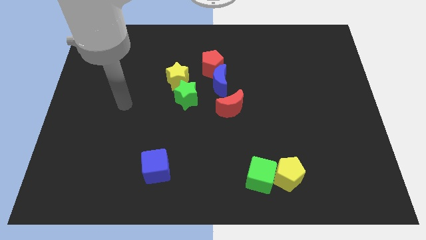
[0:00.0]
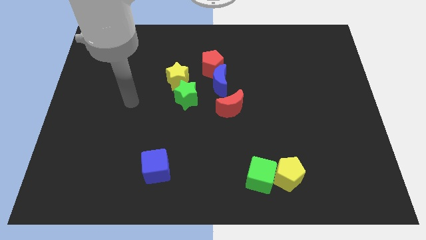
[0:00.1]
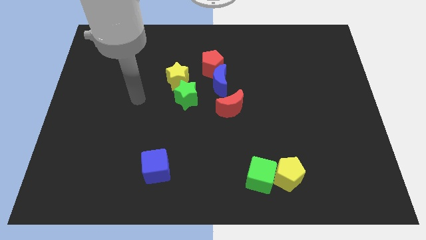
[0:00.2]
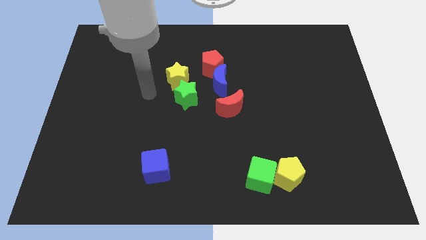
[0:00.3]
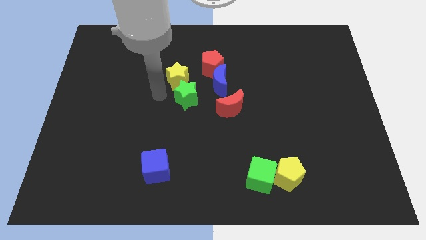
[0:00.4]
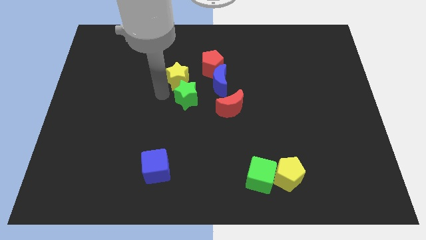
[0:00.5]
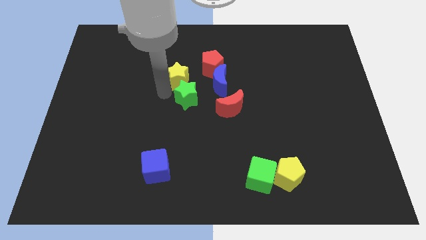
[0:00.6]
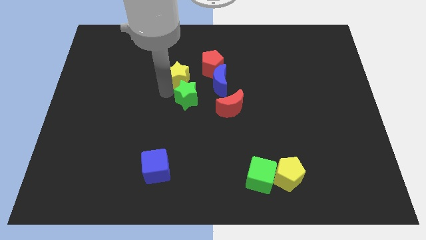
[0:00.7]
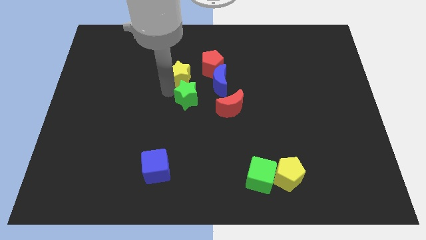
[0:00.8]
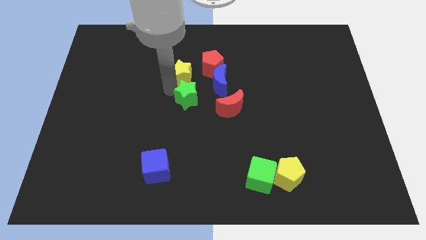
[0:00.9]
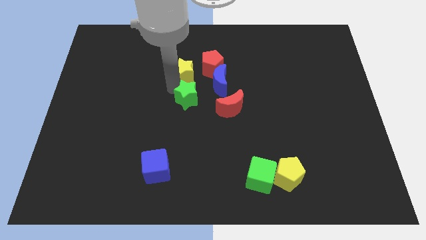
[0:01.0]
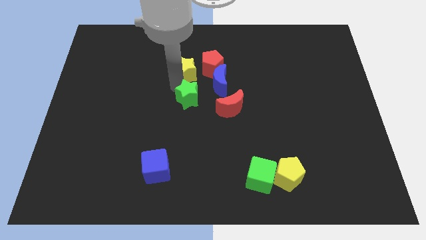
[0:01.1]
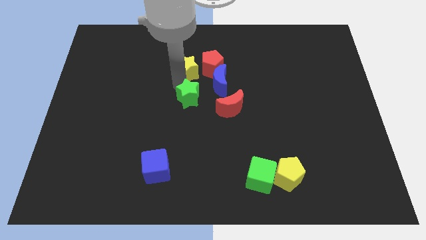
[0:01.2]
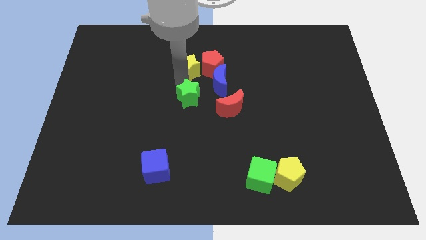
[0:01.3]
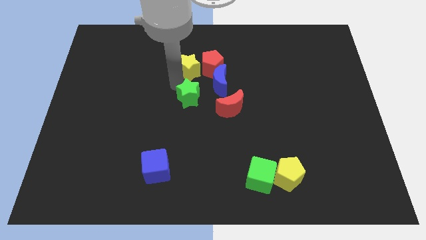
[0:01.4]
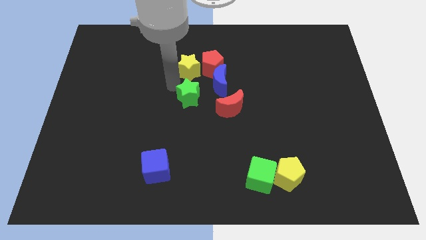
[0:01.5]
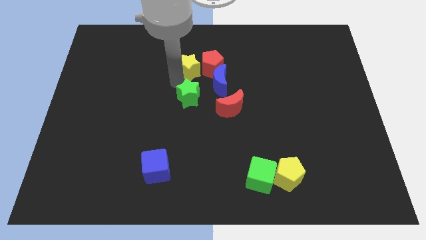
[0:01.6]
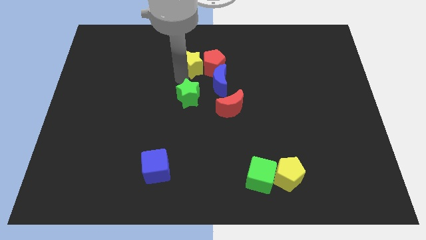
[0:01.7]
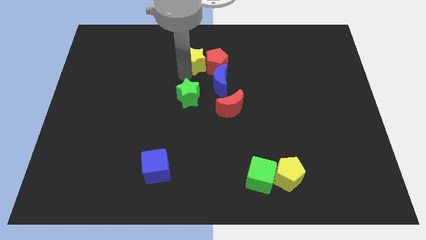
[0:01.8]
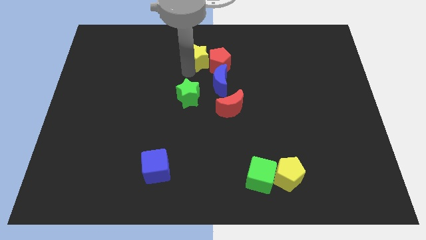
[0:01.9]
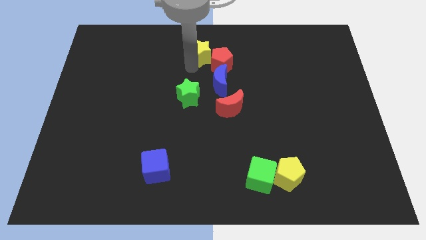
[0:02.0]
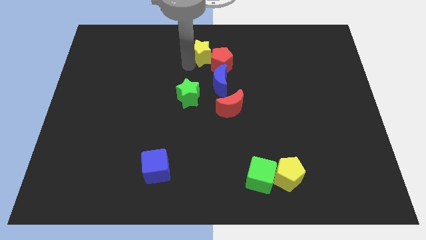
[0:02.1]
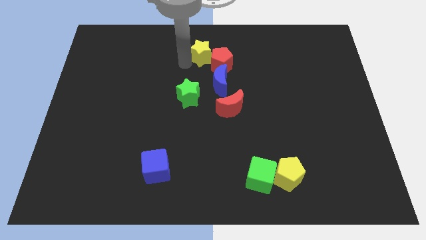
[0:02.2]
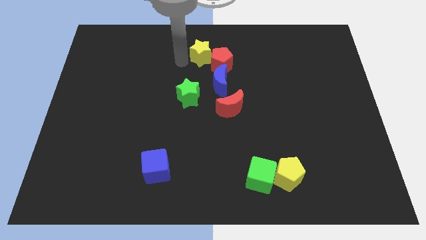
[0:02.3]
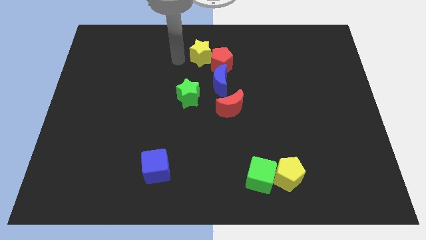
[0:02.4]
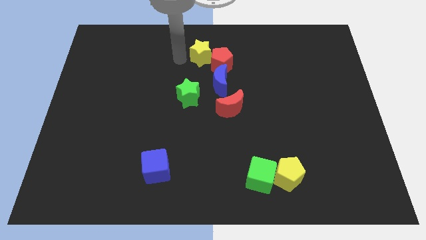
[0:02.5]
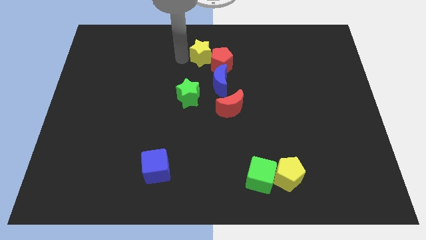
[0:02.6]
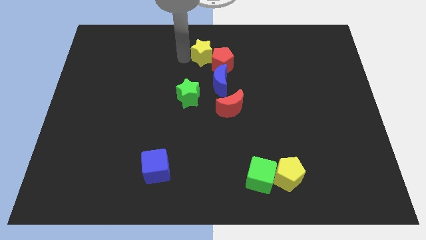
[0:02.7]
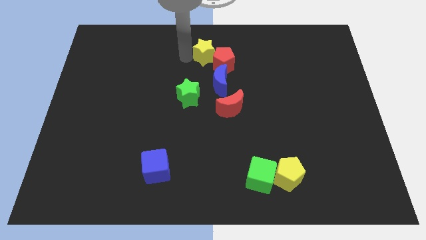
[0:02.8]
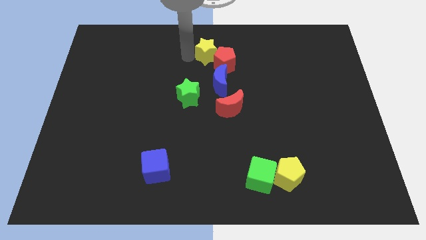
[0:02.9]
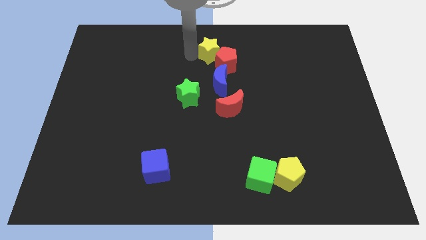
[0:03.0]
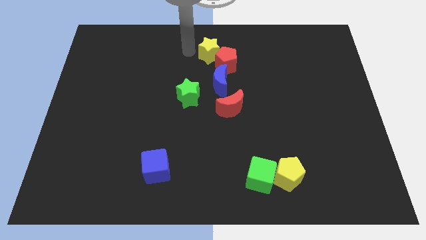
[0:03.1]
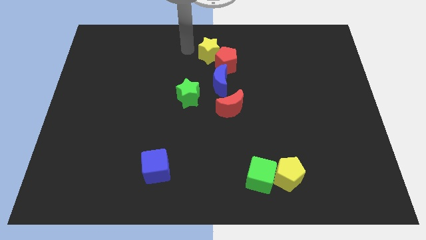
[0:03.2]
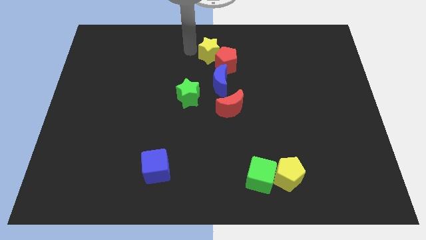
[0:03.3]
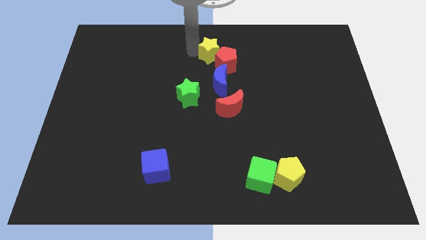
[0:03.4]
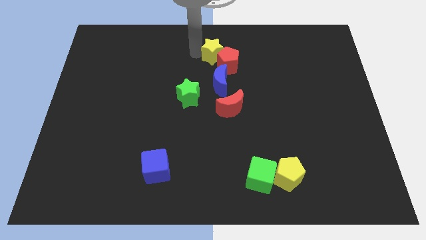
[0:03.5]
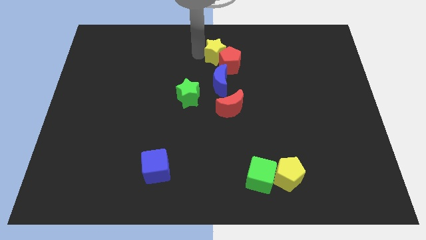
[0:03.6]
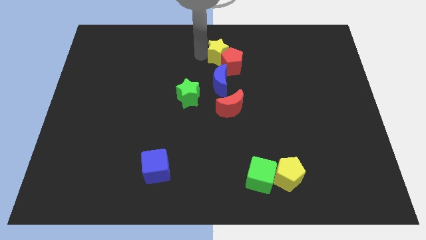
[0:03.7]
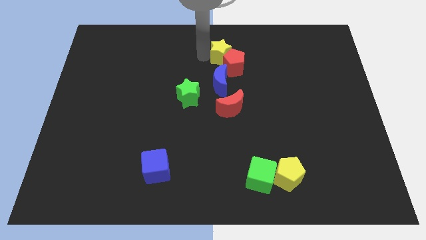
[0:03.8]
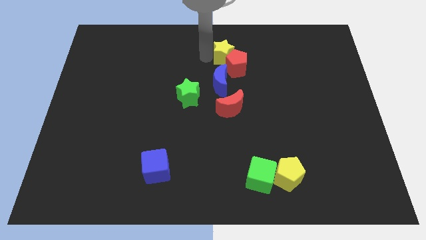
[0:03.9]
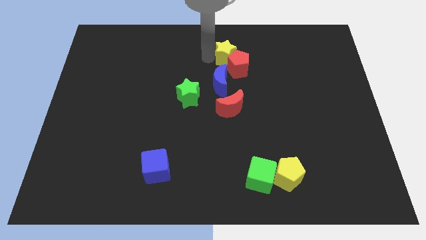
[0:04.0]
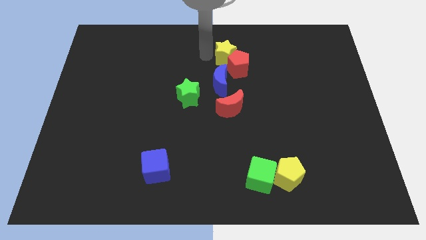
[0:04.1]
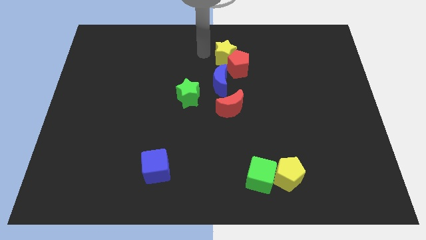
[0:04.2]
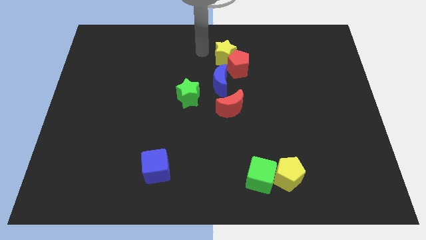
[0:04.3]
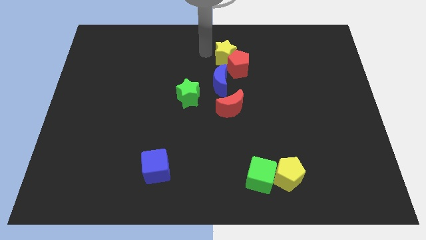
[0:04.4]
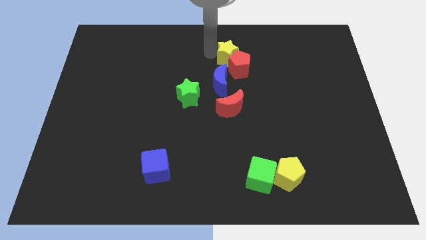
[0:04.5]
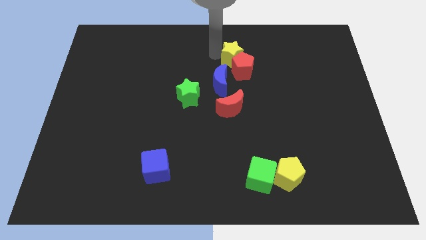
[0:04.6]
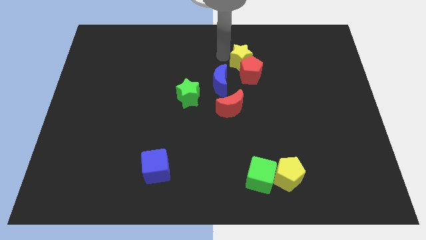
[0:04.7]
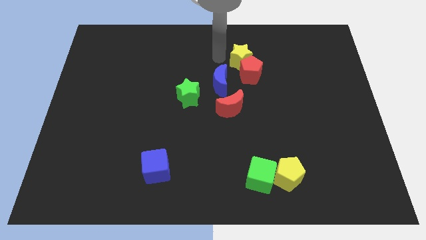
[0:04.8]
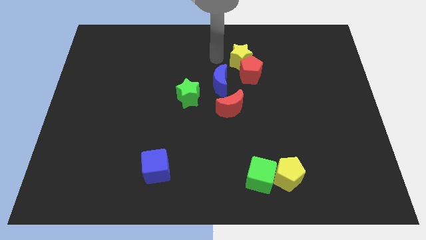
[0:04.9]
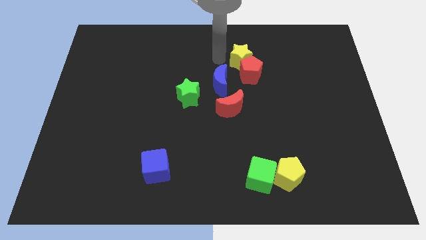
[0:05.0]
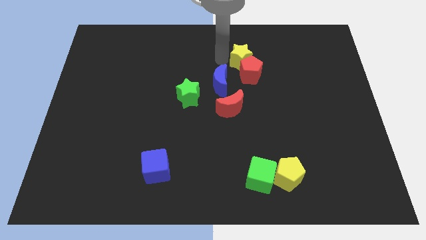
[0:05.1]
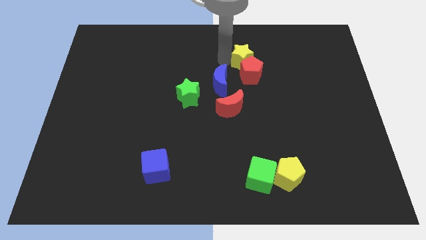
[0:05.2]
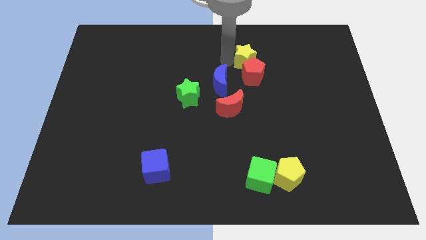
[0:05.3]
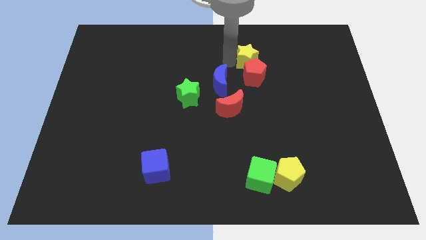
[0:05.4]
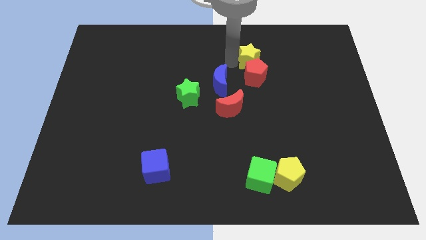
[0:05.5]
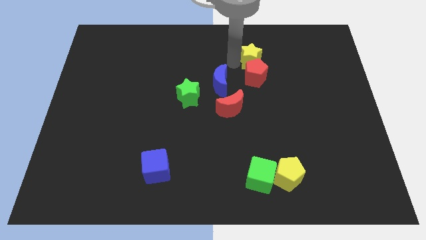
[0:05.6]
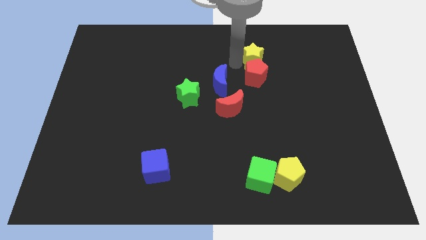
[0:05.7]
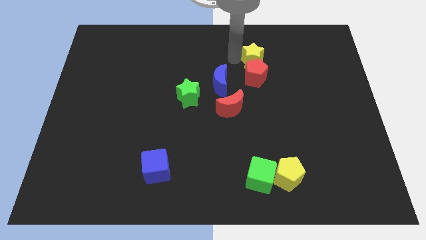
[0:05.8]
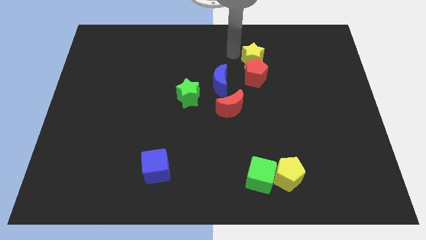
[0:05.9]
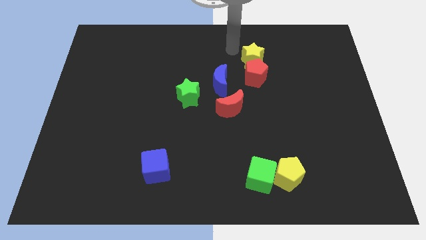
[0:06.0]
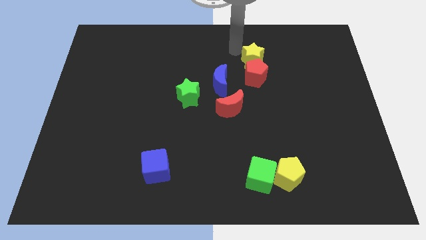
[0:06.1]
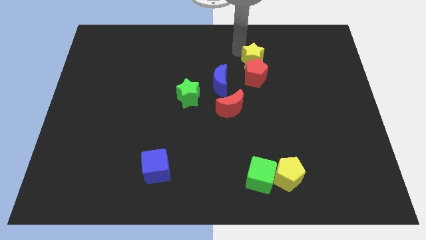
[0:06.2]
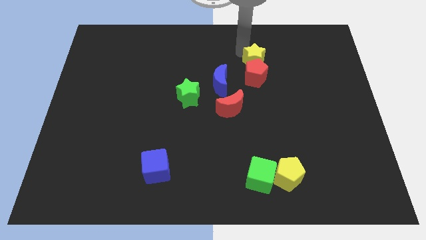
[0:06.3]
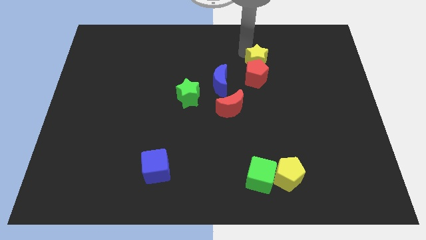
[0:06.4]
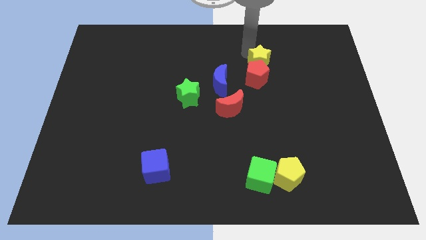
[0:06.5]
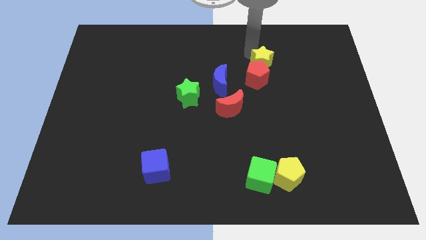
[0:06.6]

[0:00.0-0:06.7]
move the yellow star to the right

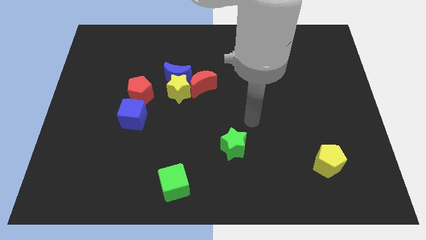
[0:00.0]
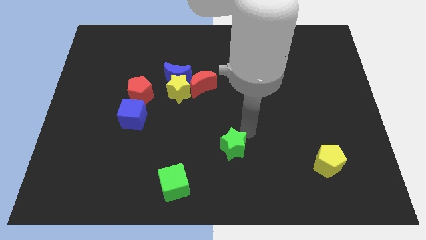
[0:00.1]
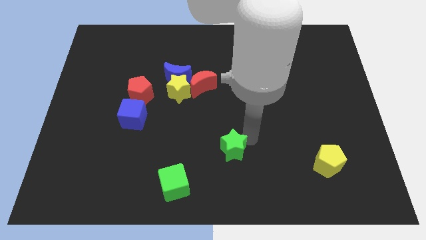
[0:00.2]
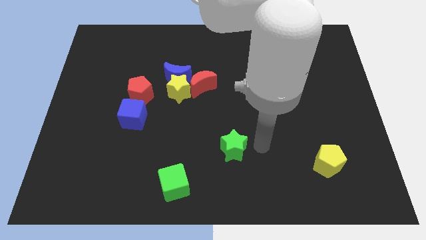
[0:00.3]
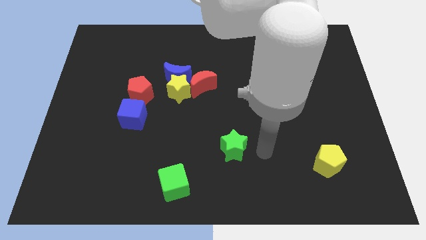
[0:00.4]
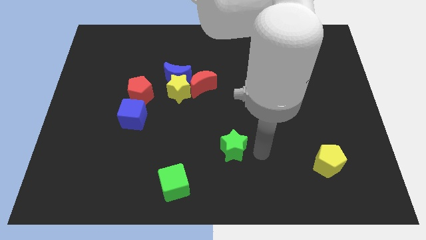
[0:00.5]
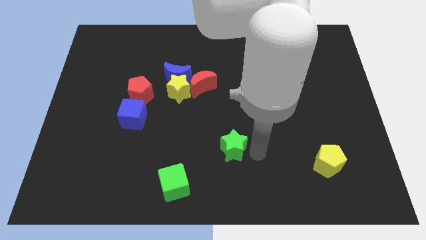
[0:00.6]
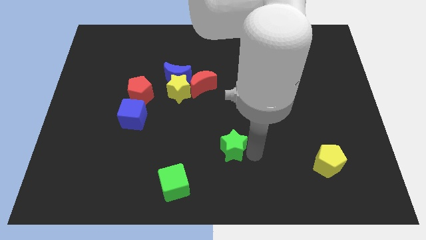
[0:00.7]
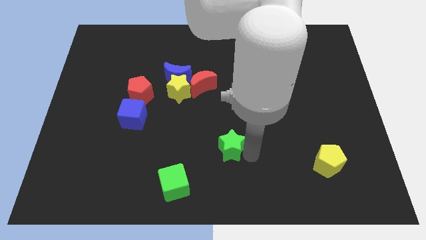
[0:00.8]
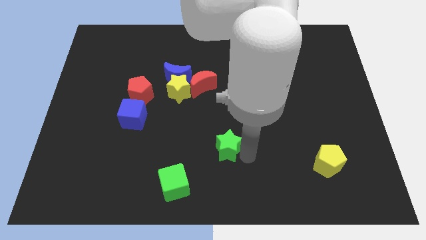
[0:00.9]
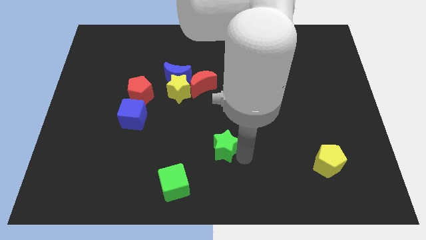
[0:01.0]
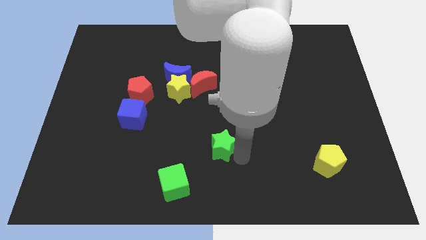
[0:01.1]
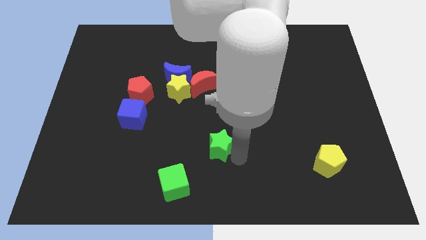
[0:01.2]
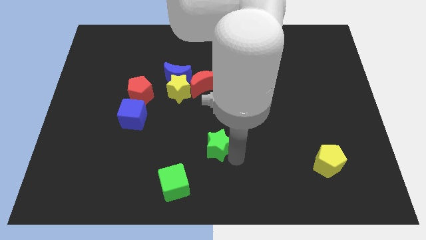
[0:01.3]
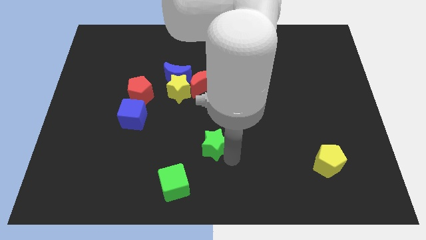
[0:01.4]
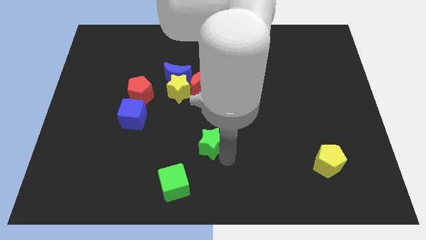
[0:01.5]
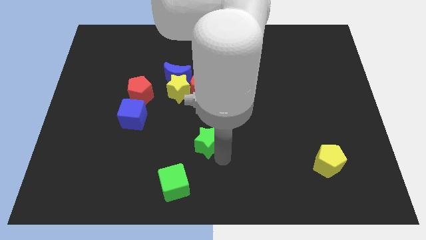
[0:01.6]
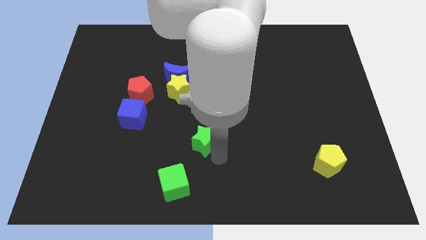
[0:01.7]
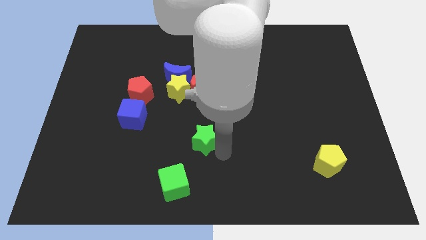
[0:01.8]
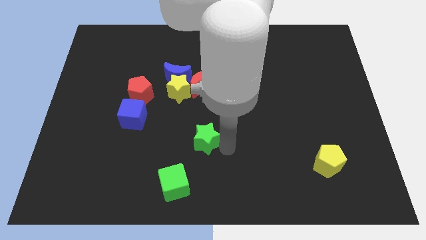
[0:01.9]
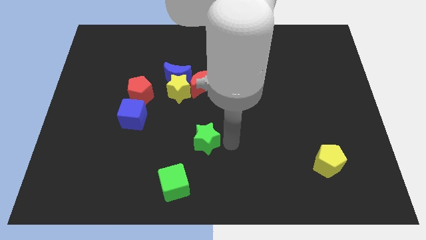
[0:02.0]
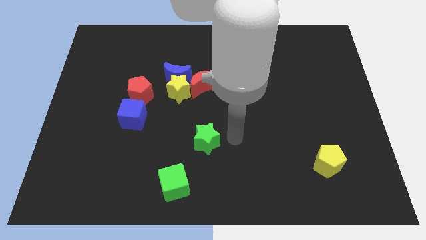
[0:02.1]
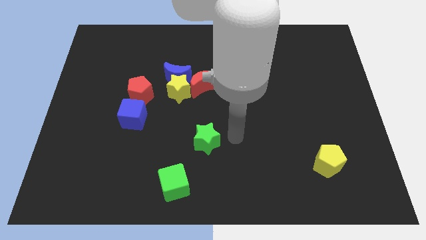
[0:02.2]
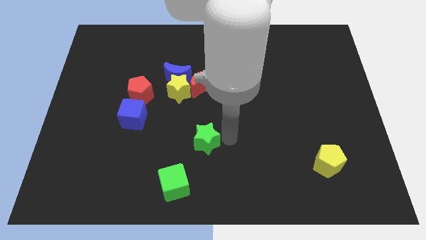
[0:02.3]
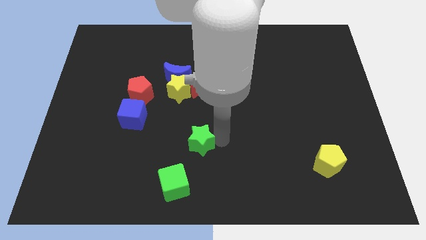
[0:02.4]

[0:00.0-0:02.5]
slightly move the green star to the left
